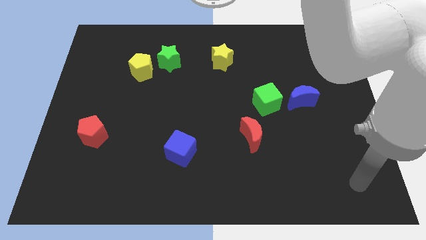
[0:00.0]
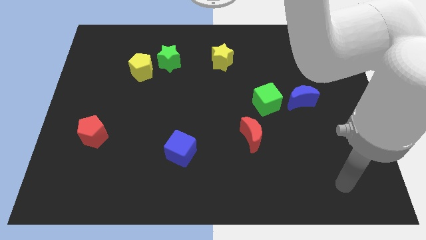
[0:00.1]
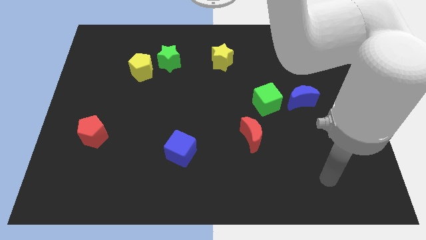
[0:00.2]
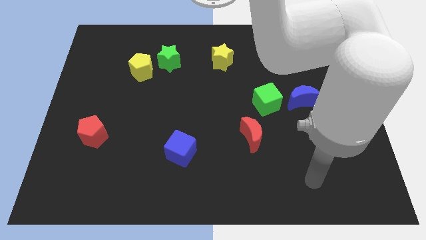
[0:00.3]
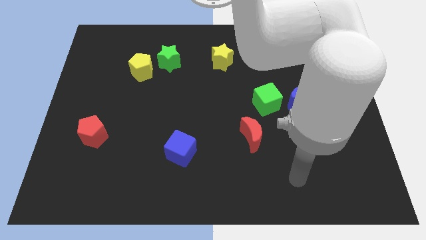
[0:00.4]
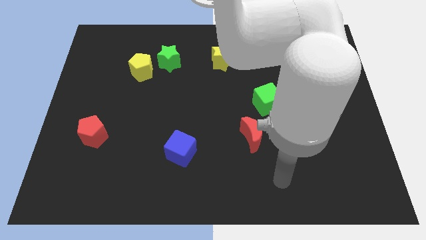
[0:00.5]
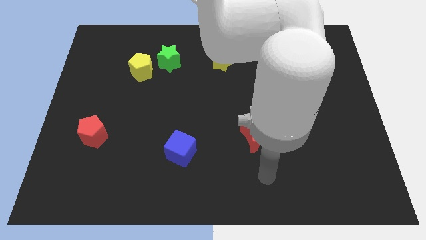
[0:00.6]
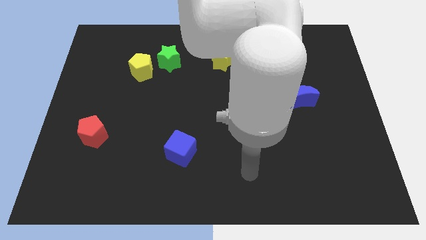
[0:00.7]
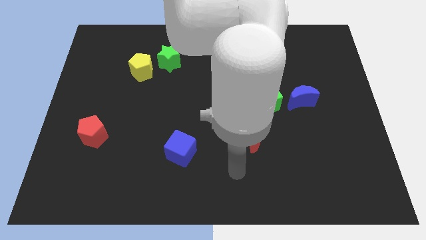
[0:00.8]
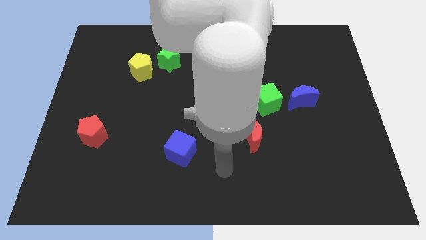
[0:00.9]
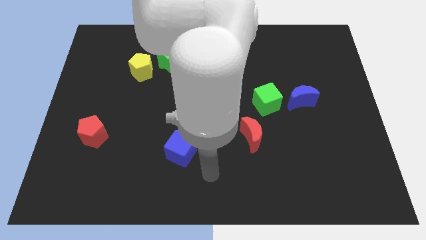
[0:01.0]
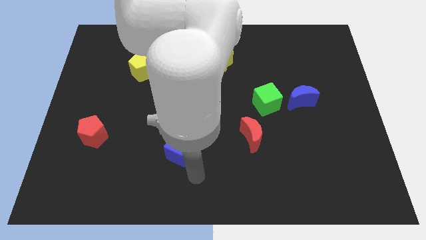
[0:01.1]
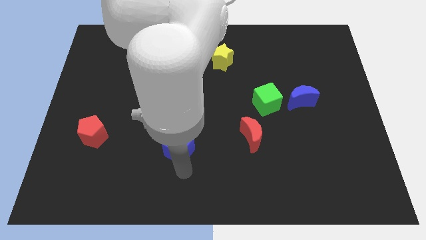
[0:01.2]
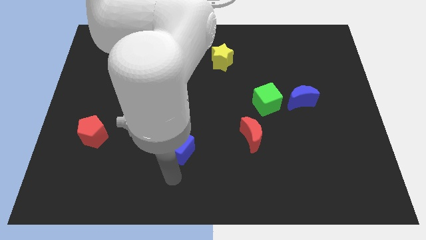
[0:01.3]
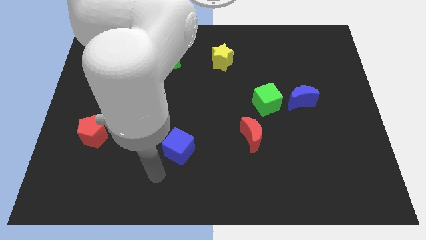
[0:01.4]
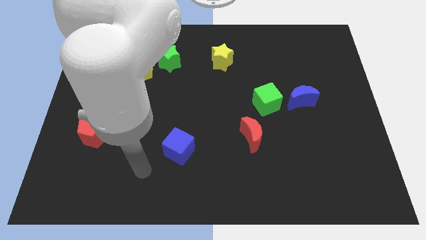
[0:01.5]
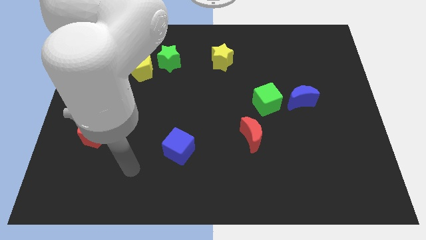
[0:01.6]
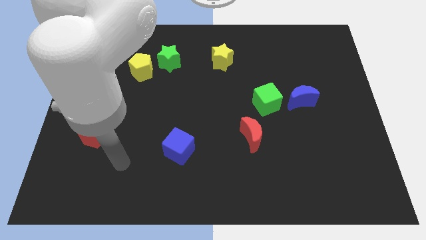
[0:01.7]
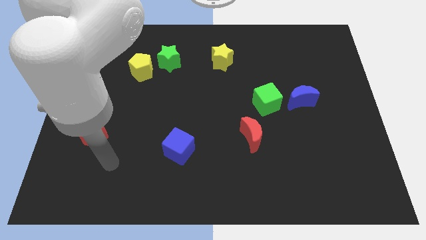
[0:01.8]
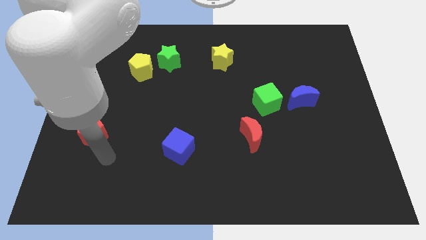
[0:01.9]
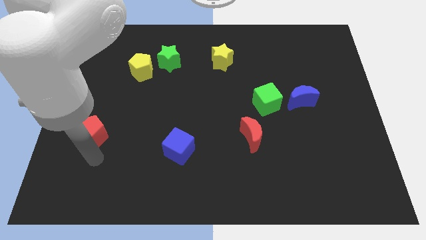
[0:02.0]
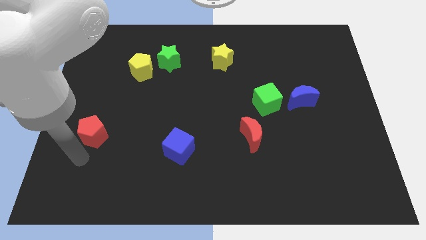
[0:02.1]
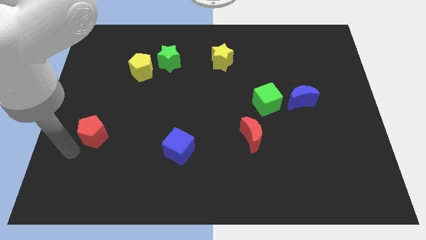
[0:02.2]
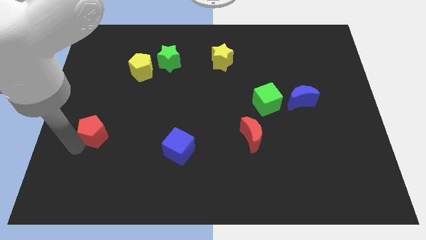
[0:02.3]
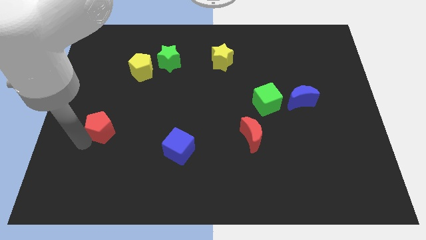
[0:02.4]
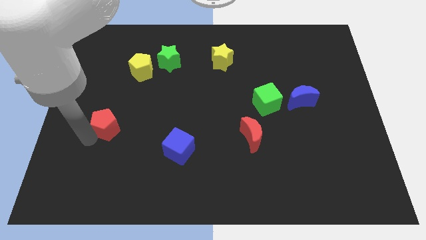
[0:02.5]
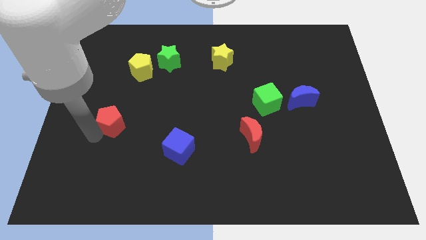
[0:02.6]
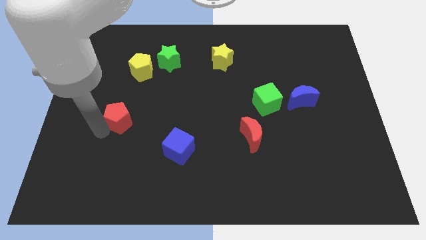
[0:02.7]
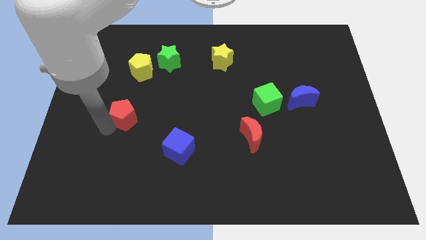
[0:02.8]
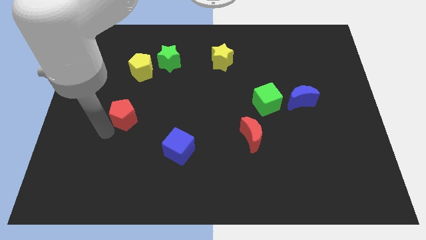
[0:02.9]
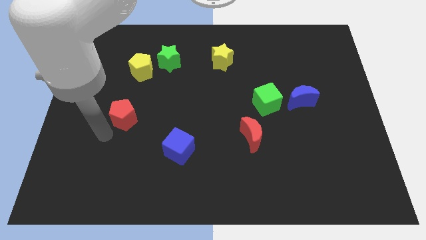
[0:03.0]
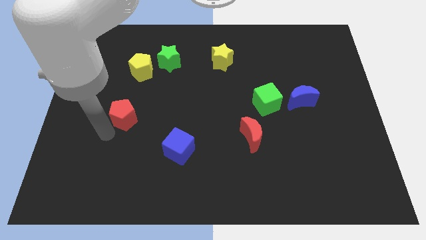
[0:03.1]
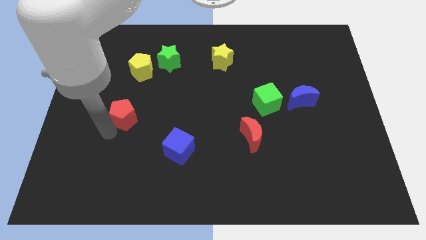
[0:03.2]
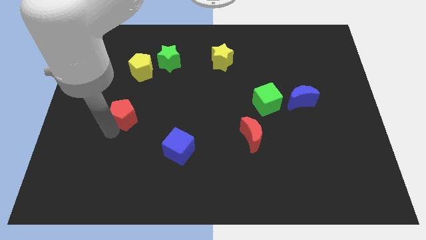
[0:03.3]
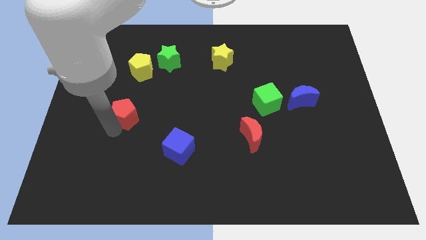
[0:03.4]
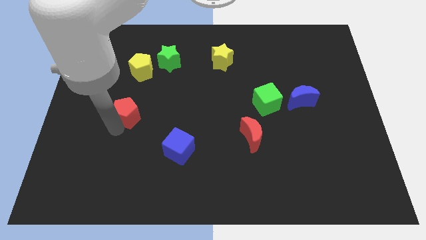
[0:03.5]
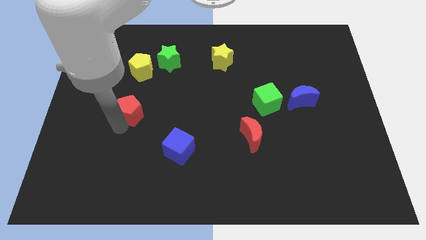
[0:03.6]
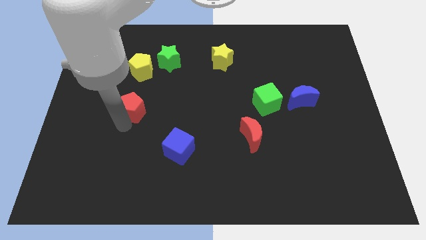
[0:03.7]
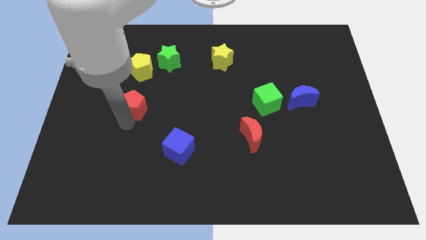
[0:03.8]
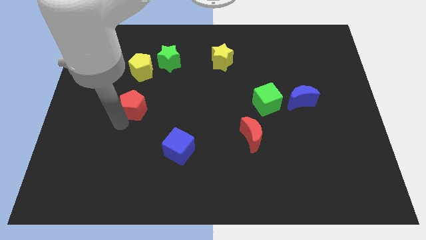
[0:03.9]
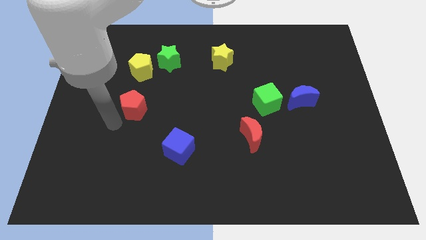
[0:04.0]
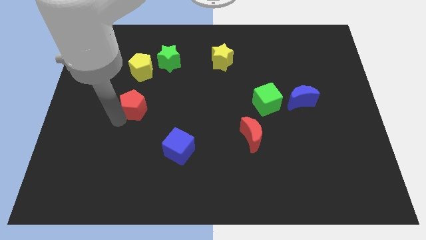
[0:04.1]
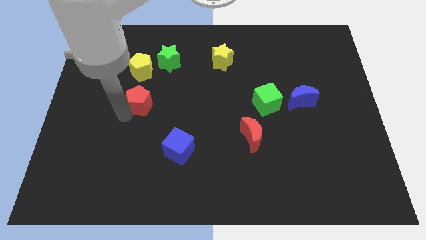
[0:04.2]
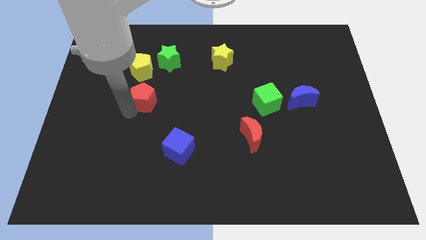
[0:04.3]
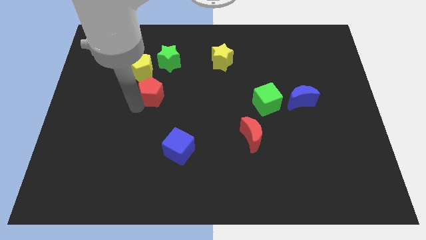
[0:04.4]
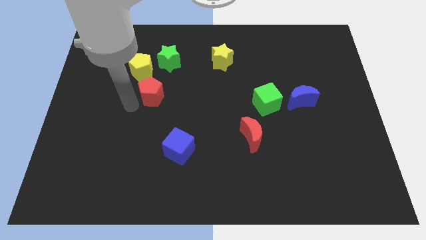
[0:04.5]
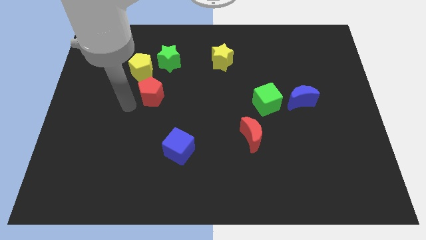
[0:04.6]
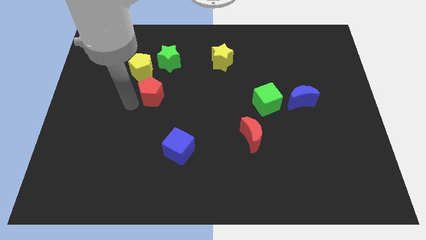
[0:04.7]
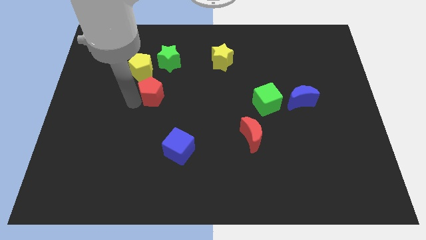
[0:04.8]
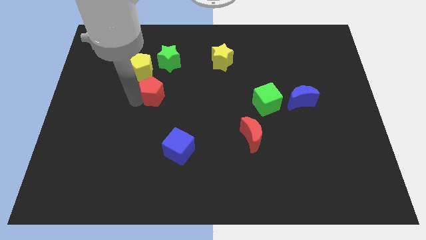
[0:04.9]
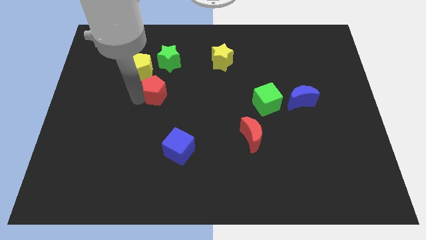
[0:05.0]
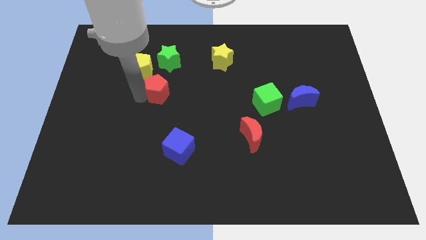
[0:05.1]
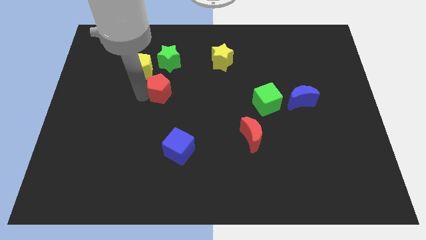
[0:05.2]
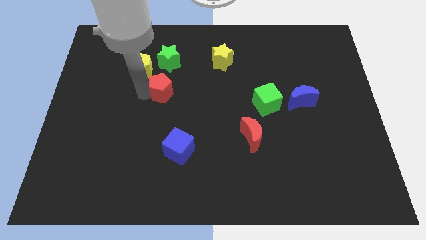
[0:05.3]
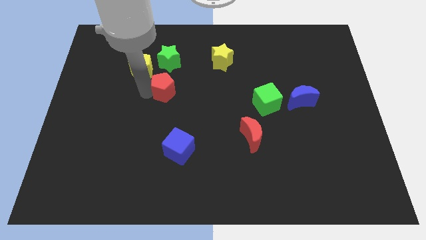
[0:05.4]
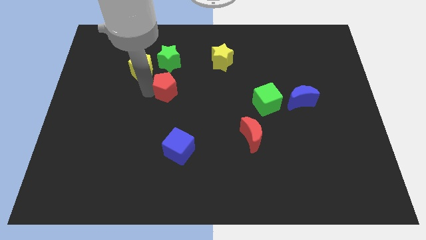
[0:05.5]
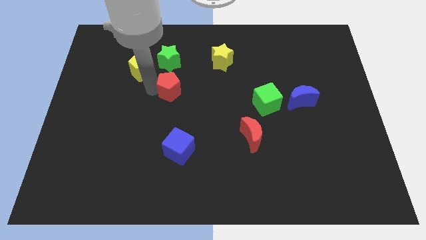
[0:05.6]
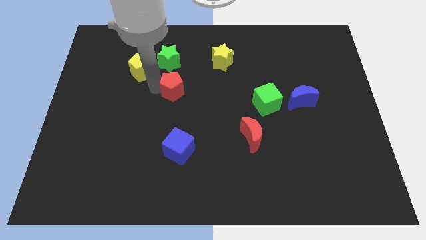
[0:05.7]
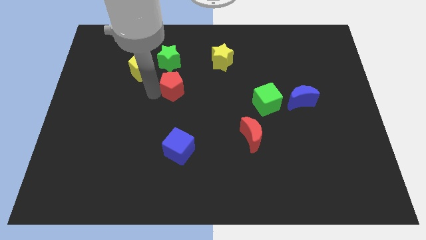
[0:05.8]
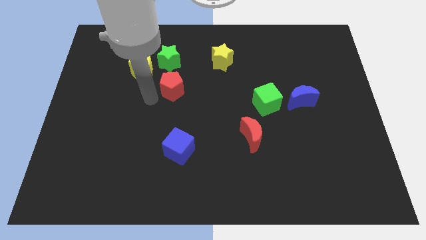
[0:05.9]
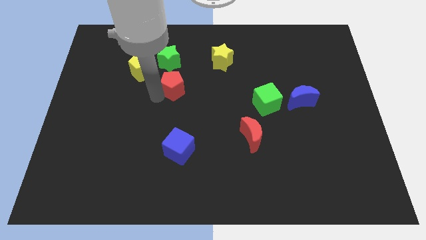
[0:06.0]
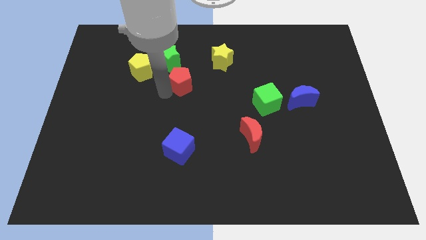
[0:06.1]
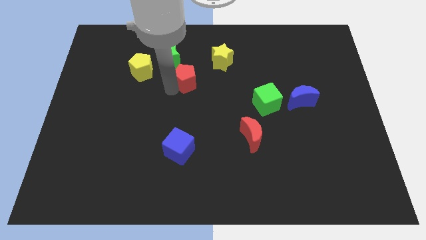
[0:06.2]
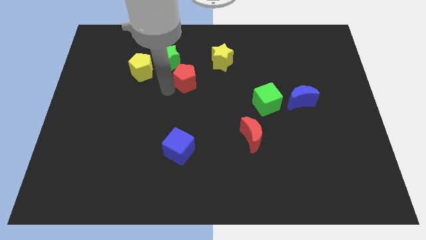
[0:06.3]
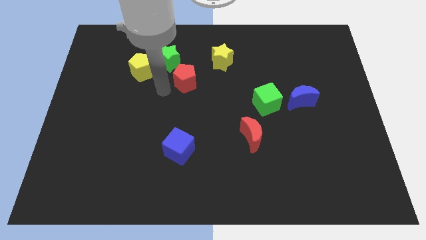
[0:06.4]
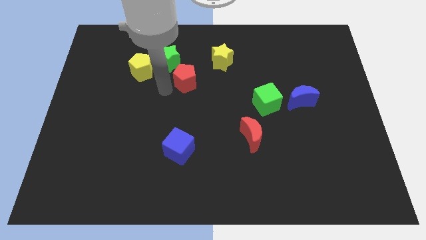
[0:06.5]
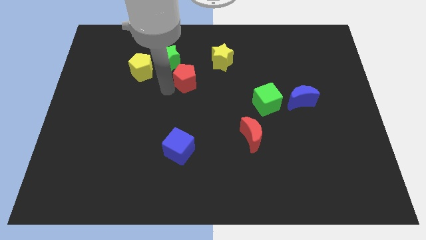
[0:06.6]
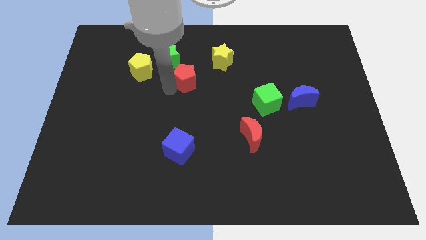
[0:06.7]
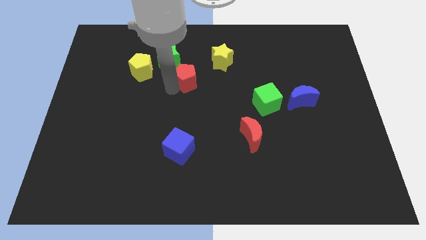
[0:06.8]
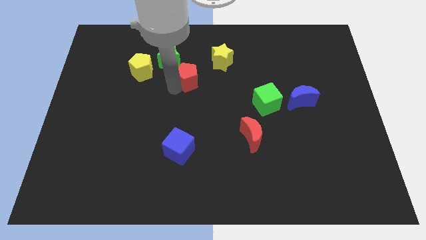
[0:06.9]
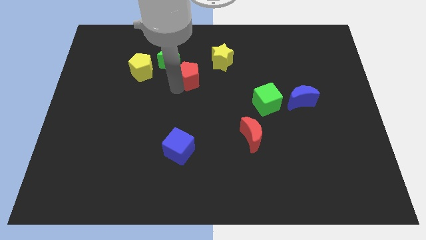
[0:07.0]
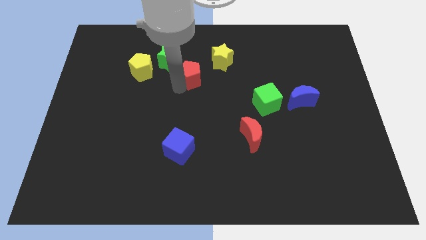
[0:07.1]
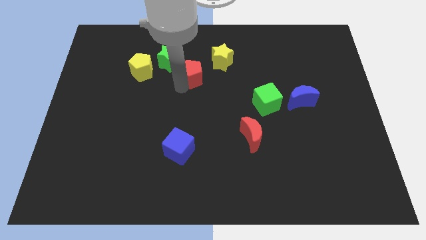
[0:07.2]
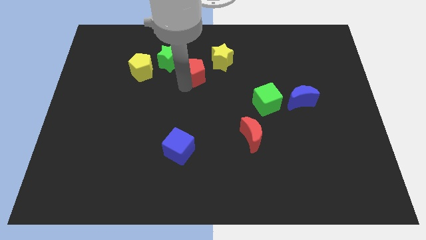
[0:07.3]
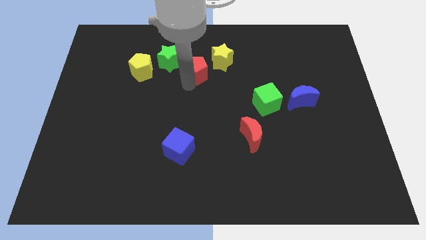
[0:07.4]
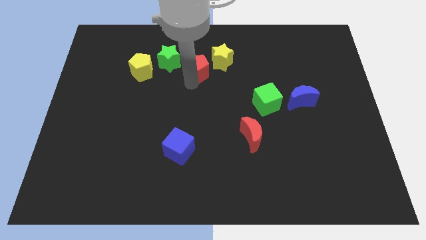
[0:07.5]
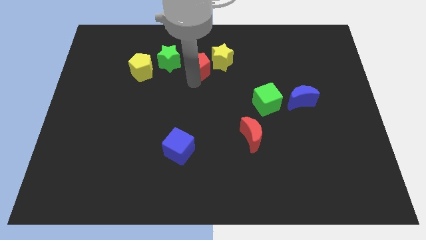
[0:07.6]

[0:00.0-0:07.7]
move the red pentagon to the yellow star
